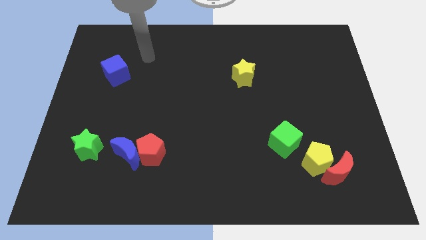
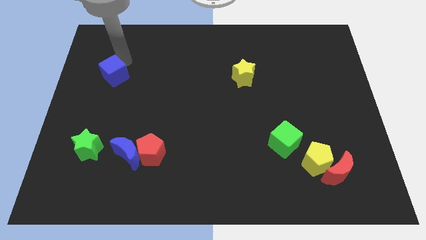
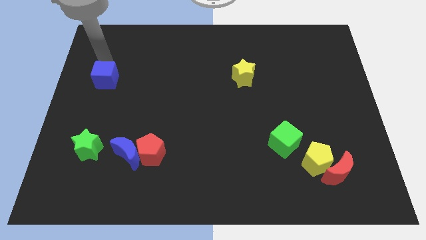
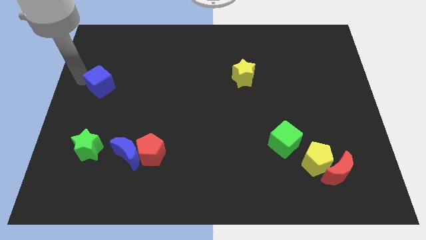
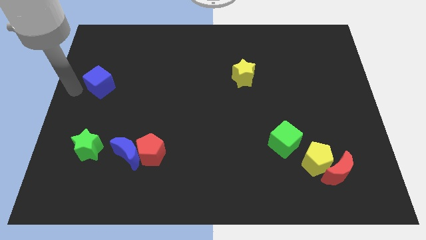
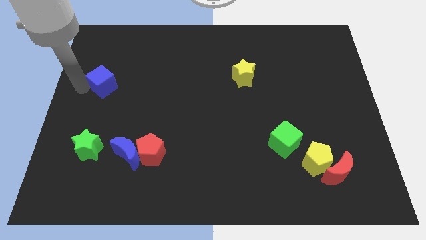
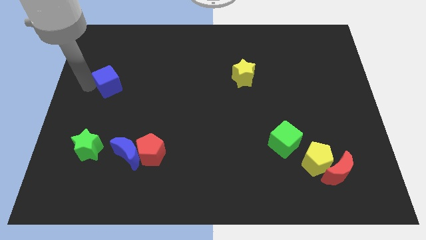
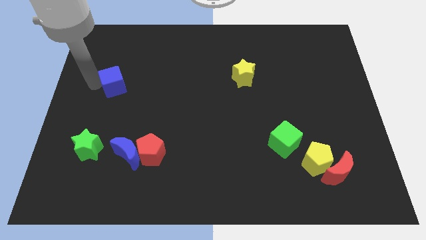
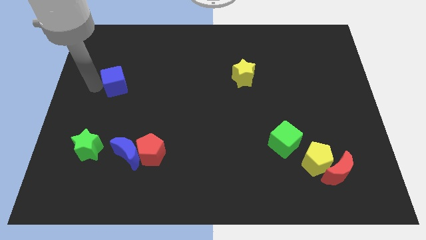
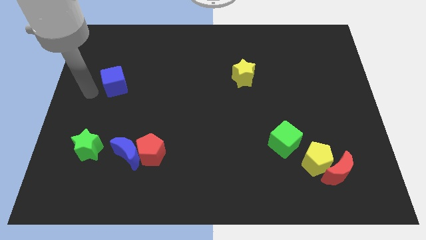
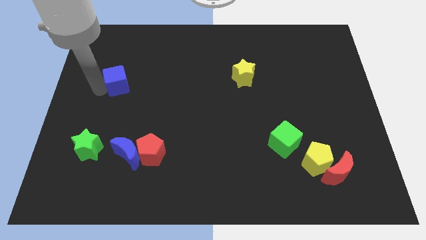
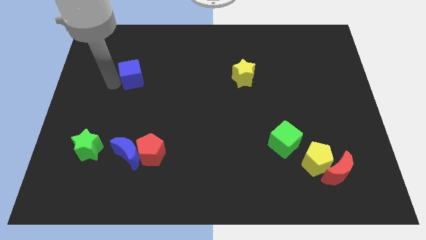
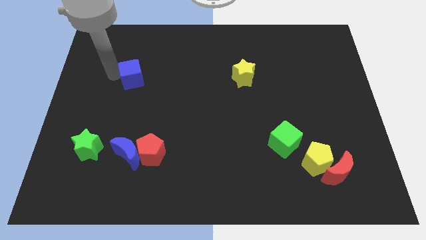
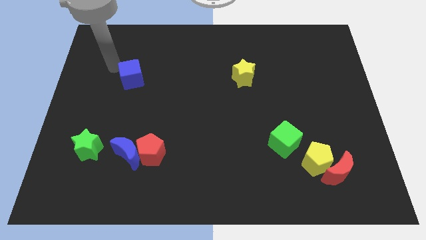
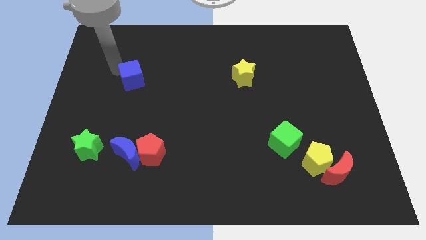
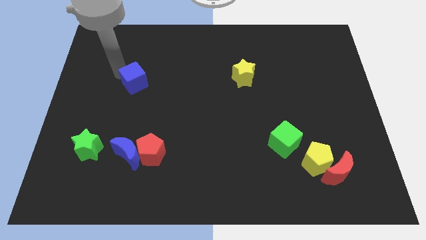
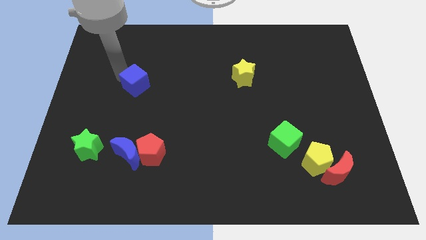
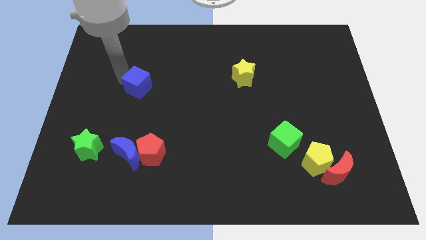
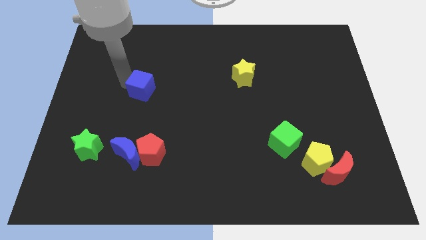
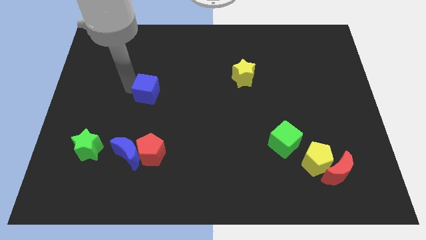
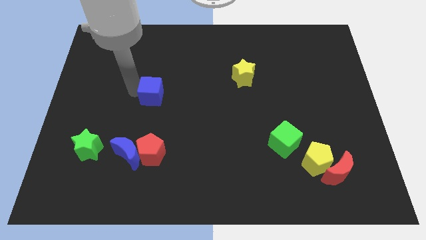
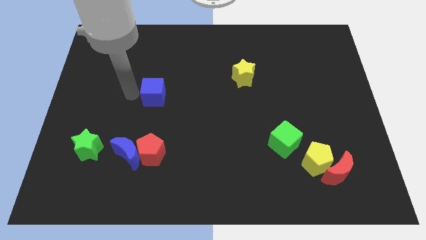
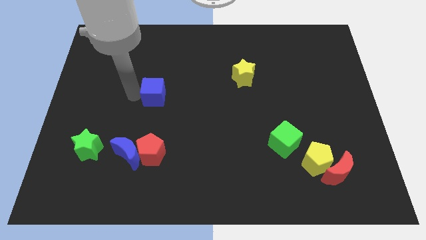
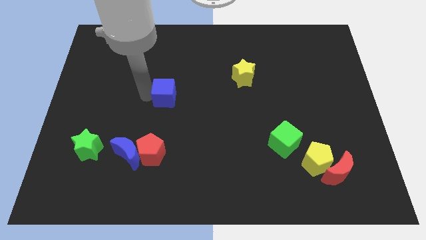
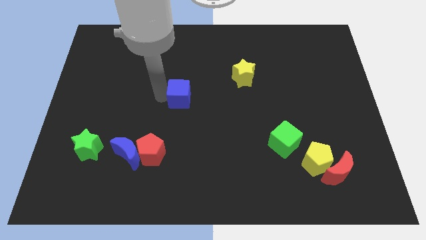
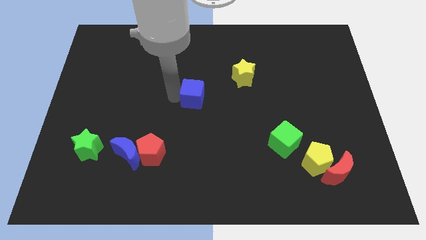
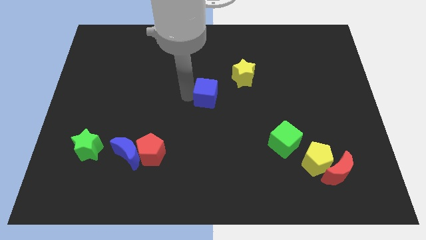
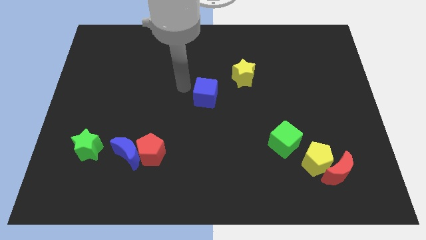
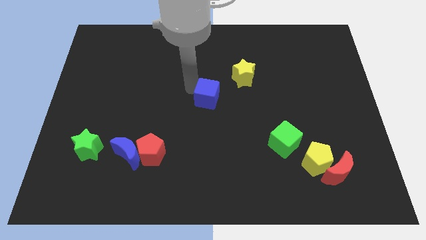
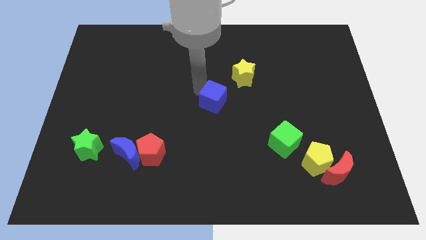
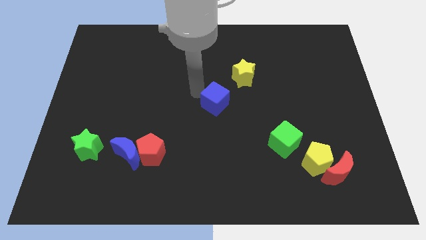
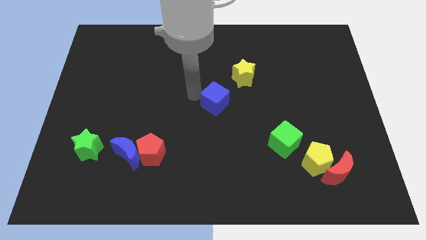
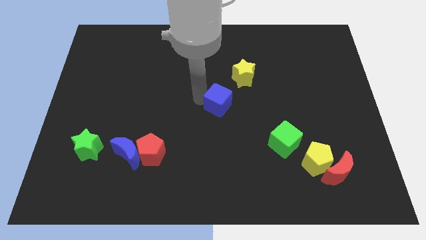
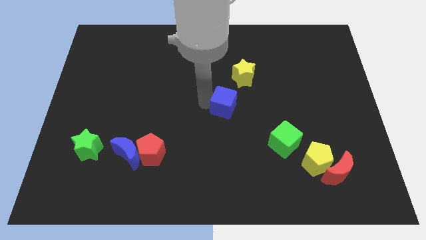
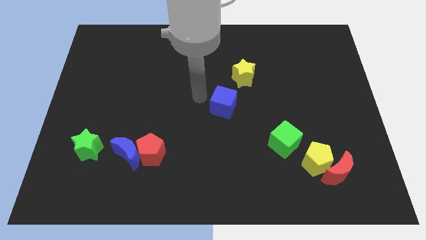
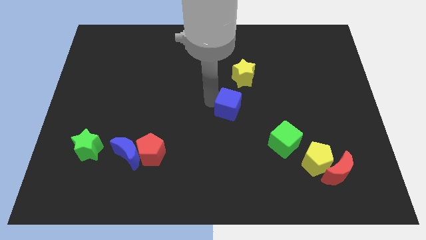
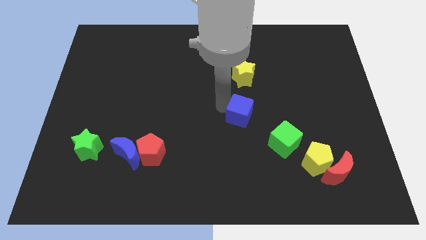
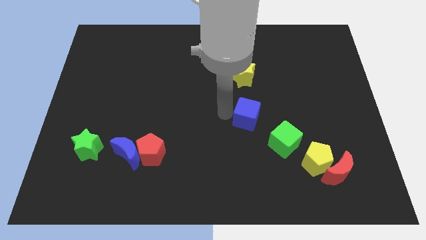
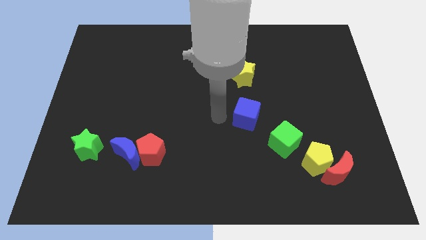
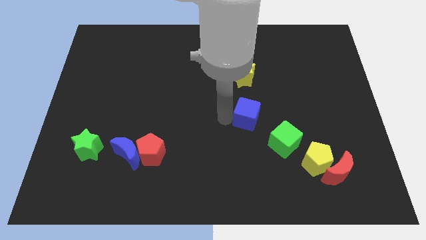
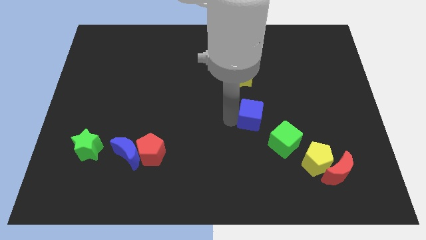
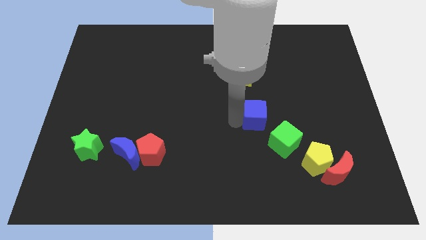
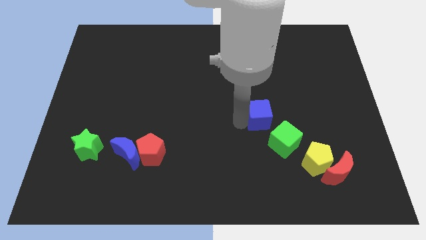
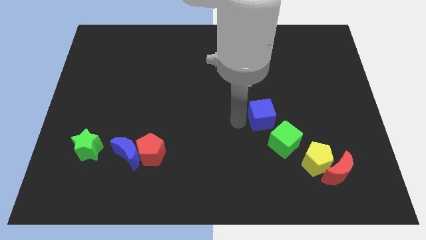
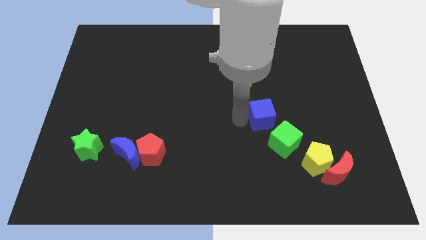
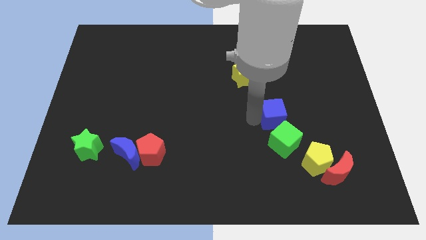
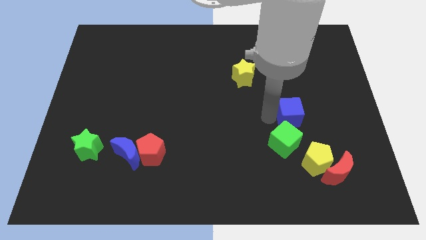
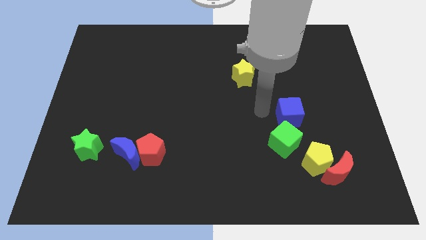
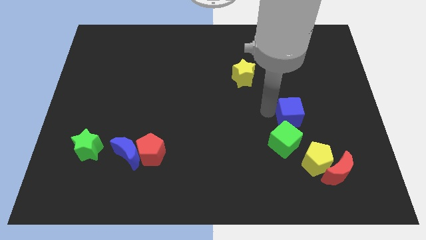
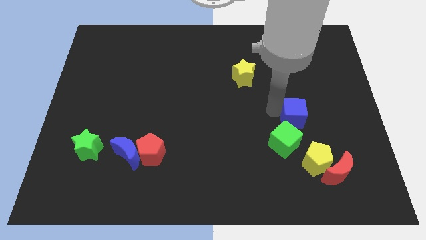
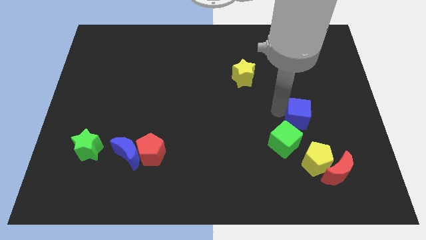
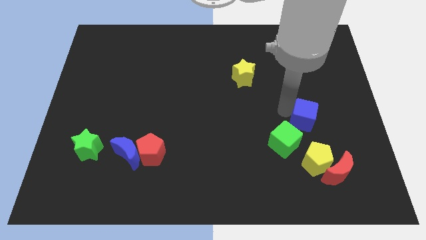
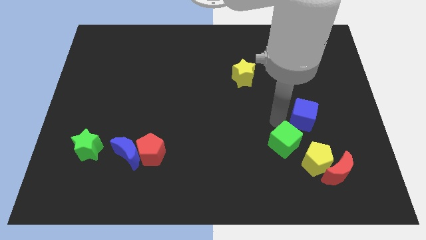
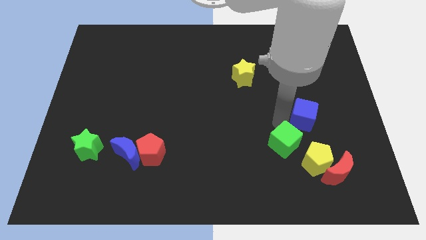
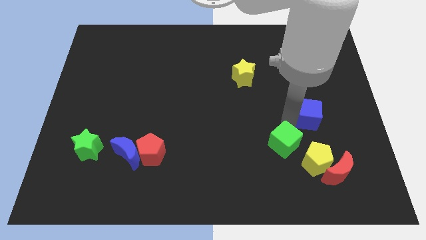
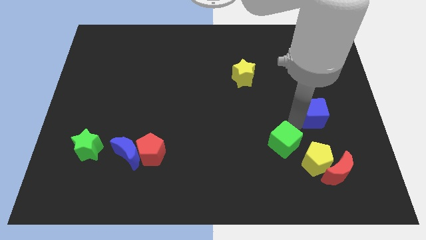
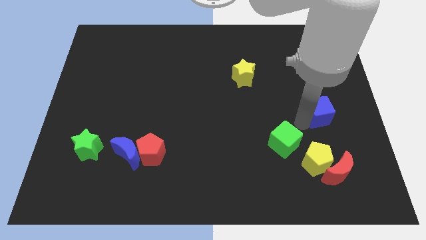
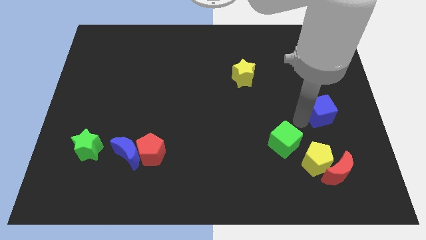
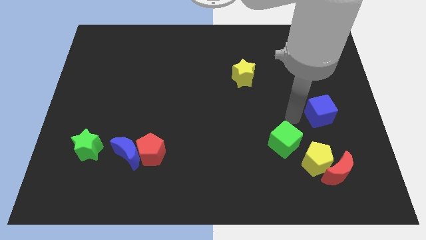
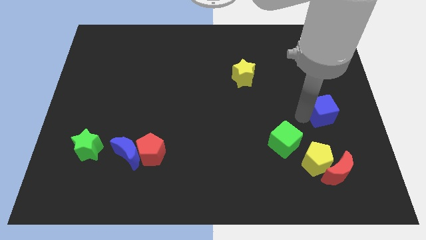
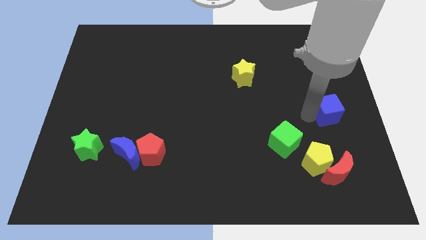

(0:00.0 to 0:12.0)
push the blue cube to the right side

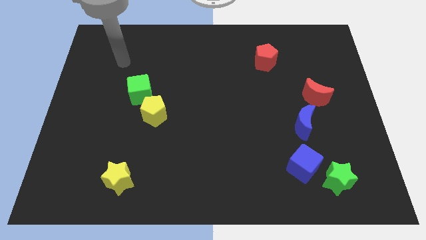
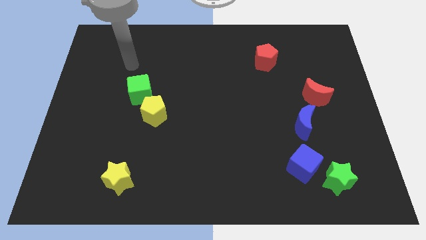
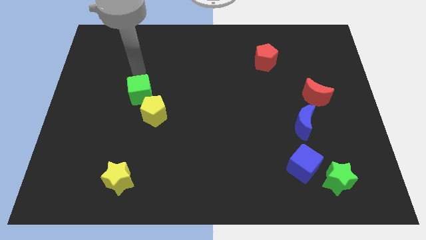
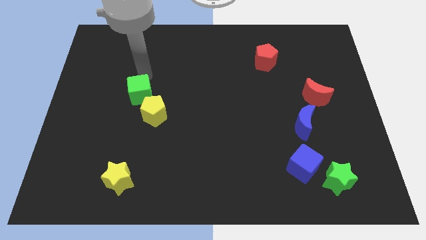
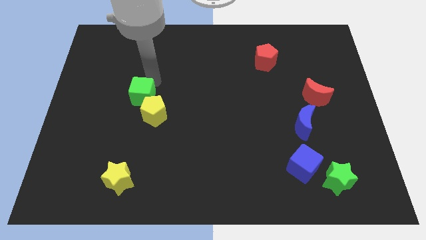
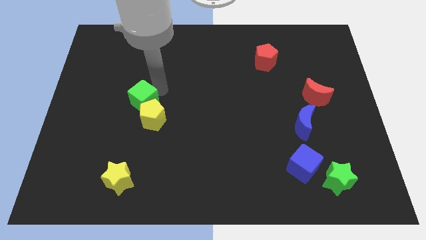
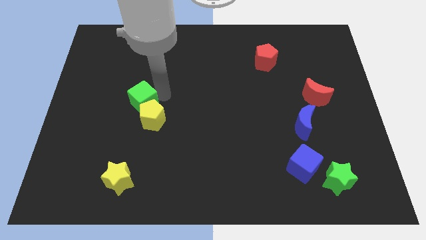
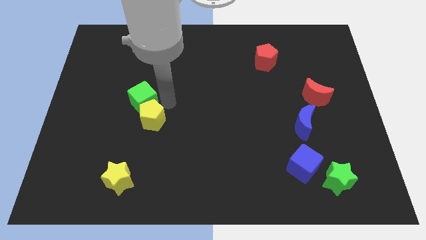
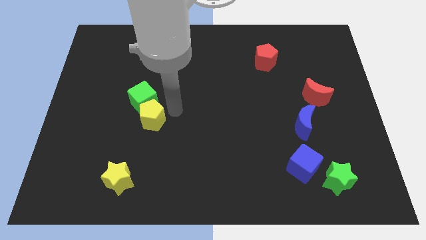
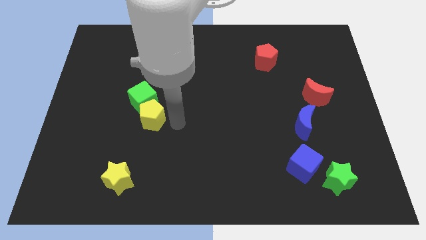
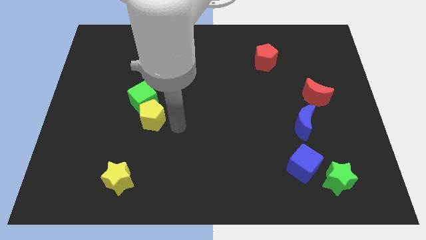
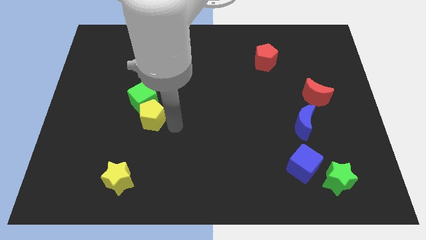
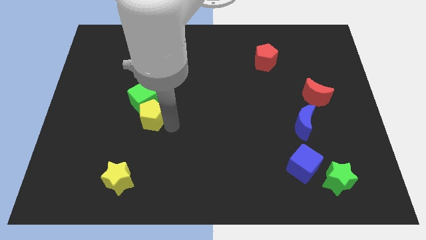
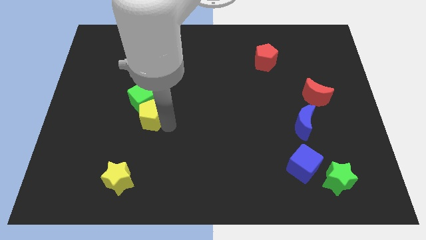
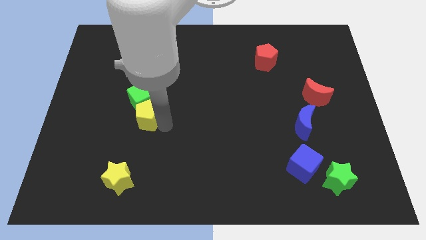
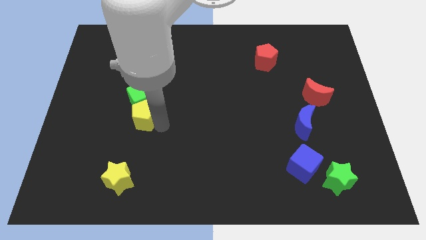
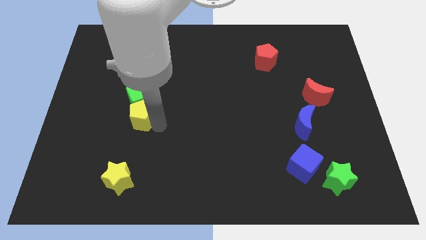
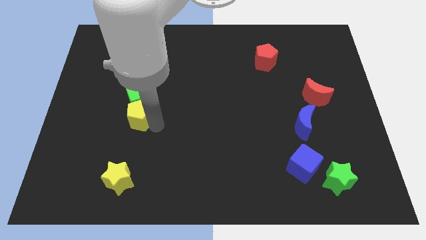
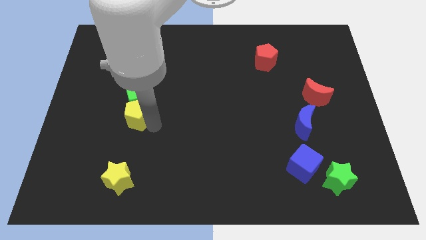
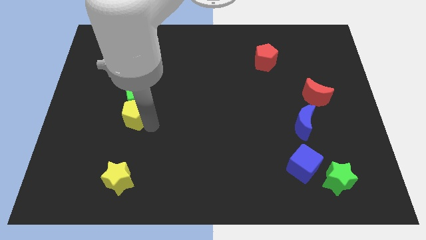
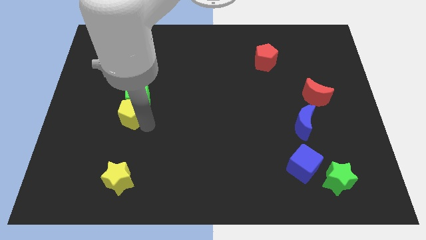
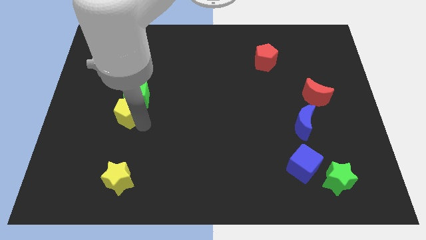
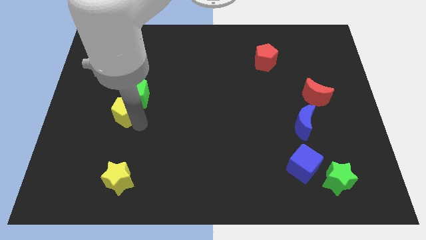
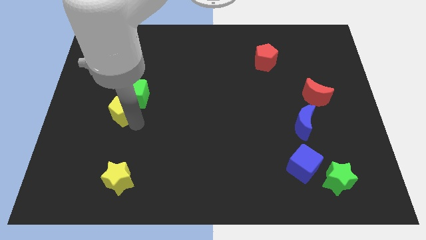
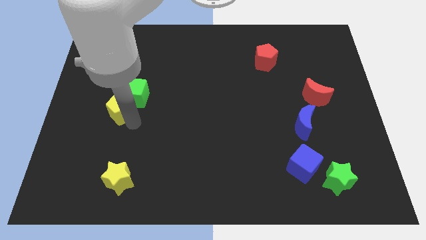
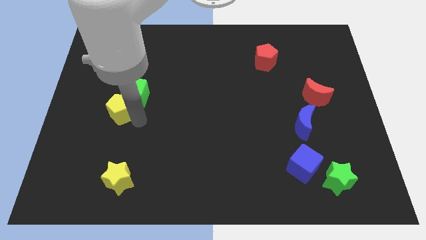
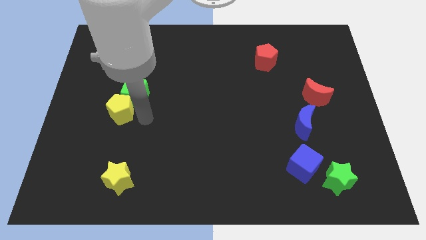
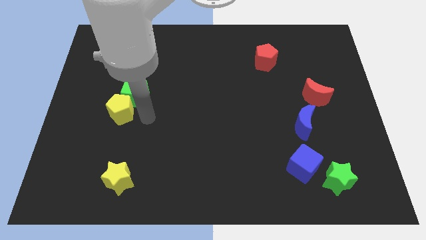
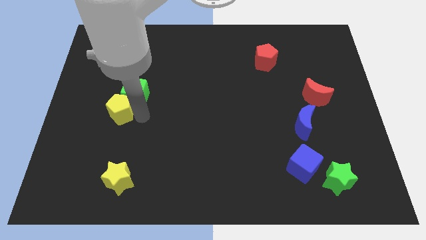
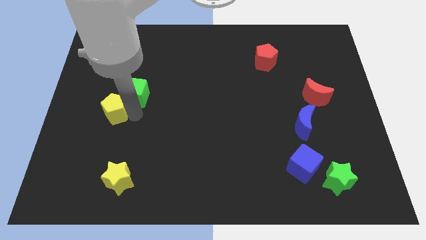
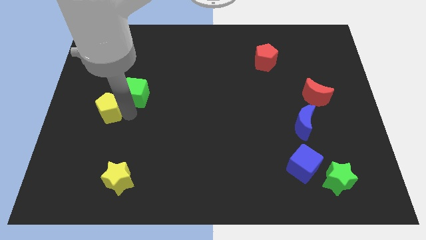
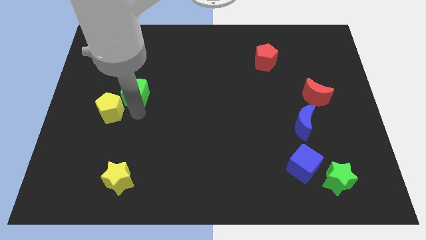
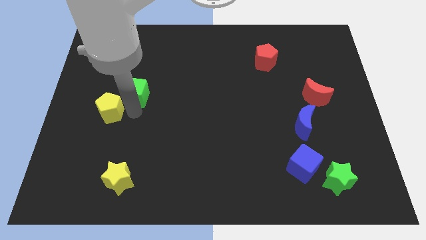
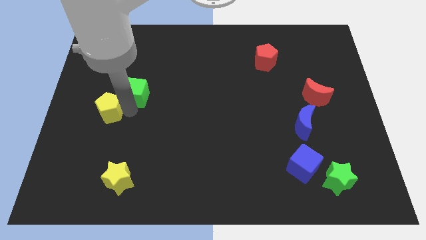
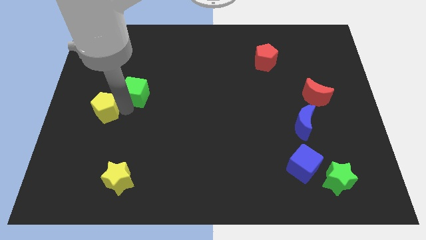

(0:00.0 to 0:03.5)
push the yellow pentagon to the left side
